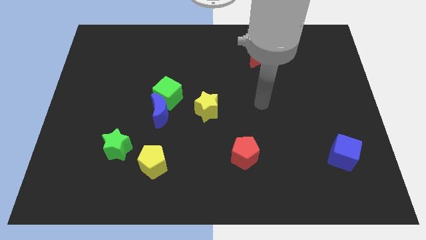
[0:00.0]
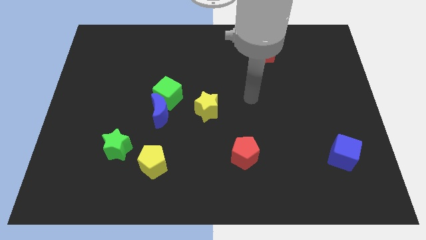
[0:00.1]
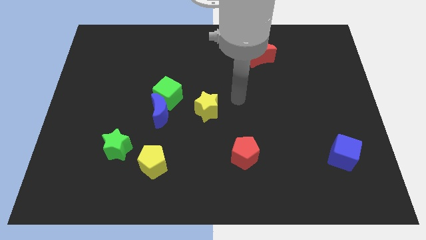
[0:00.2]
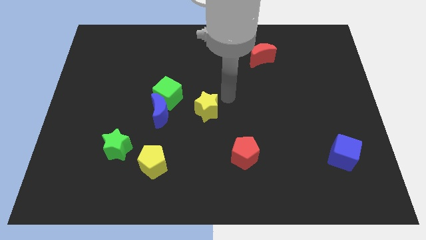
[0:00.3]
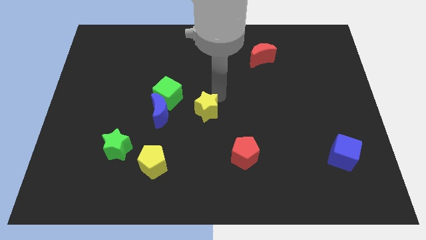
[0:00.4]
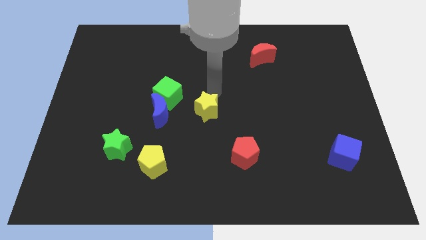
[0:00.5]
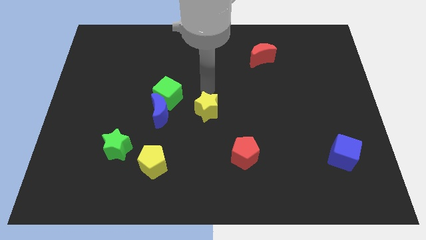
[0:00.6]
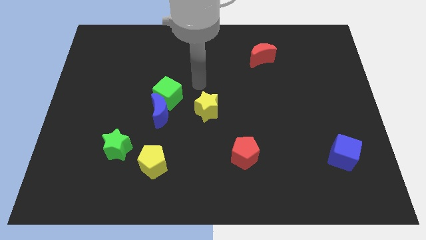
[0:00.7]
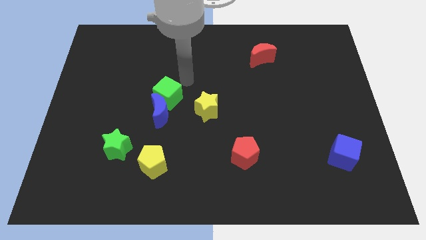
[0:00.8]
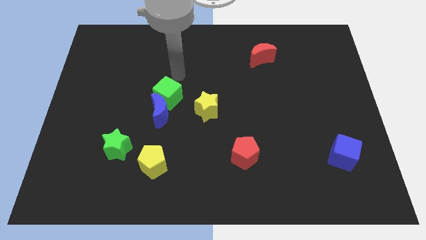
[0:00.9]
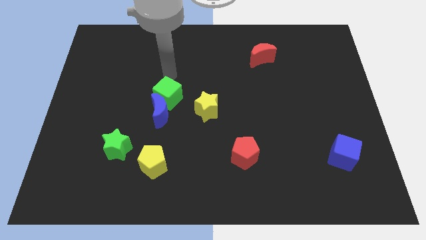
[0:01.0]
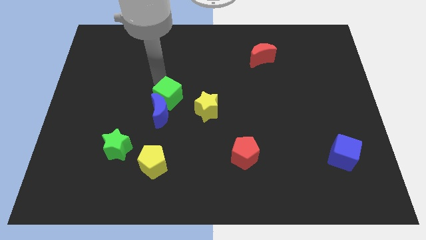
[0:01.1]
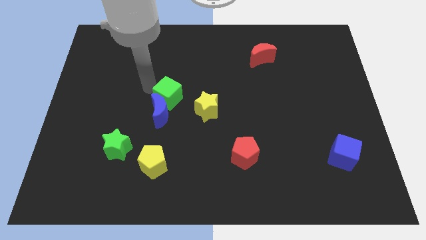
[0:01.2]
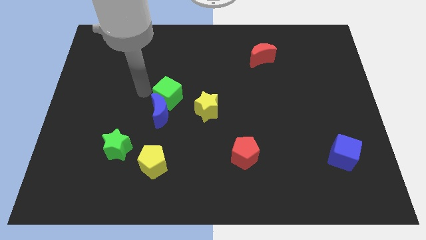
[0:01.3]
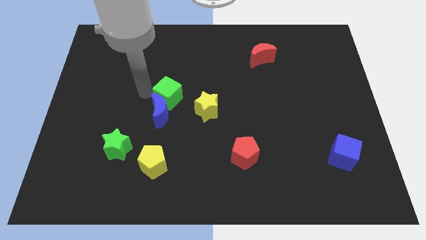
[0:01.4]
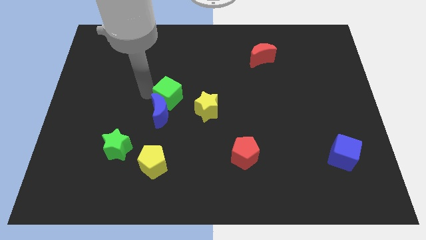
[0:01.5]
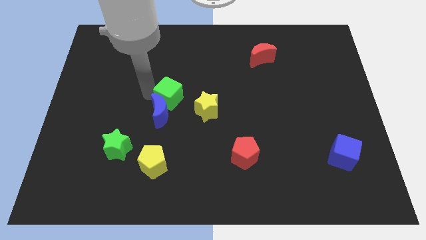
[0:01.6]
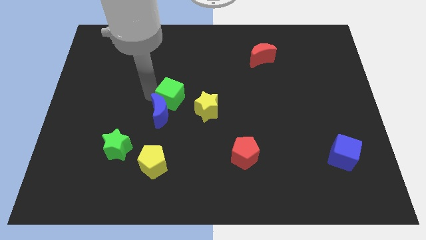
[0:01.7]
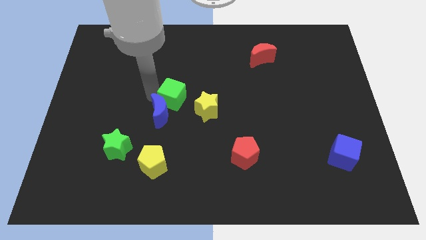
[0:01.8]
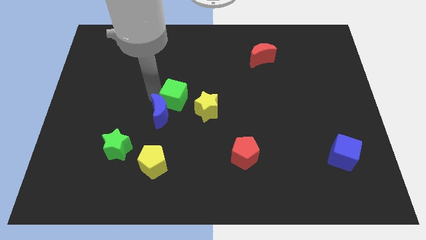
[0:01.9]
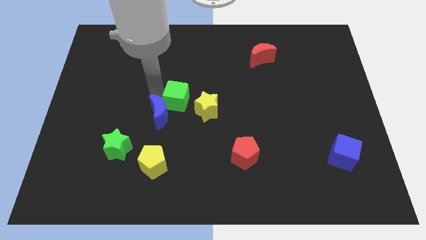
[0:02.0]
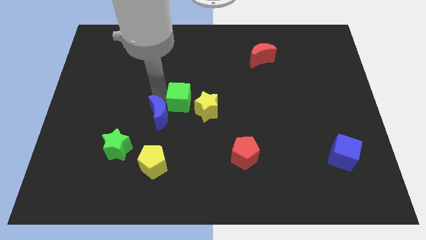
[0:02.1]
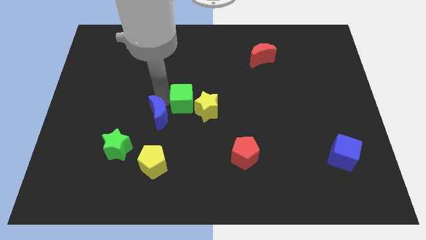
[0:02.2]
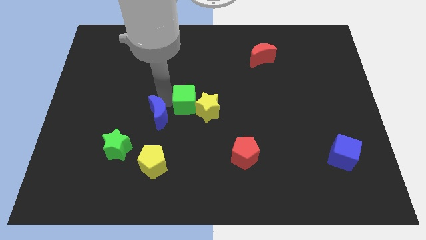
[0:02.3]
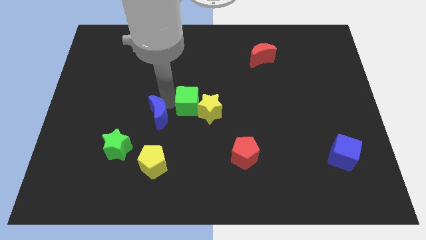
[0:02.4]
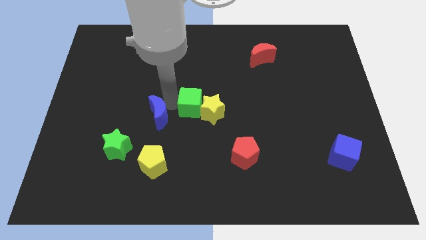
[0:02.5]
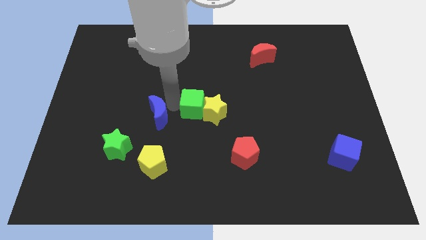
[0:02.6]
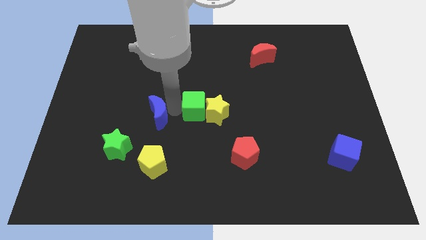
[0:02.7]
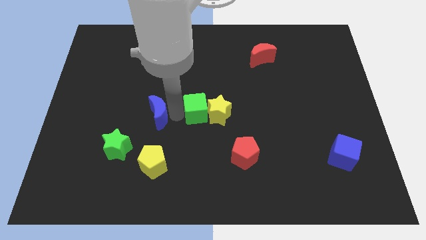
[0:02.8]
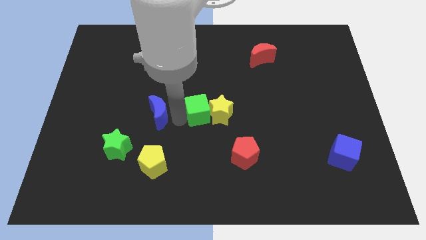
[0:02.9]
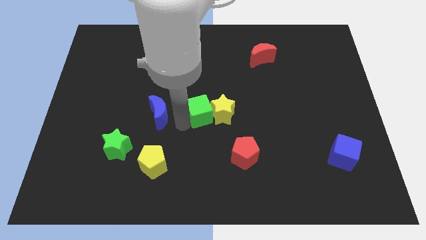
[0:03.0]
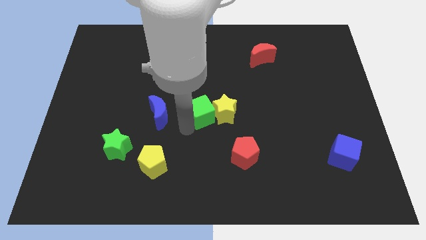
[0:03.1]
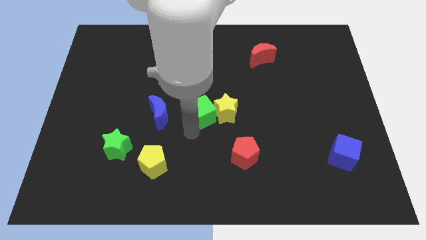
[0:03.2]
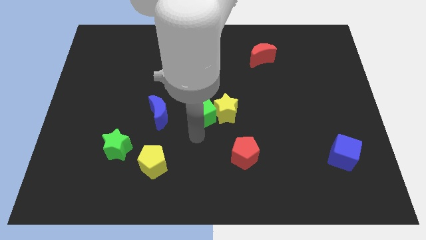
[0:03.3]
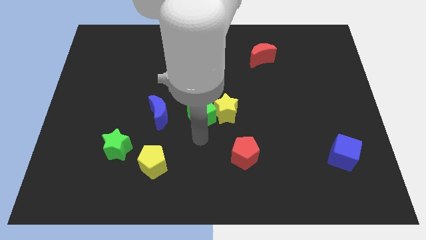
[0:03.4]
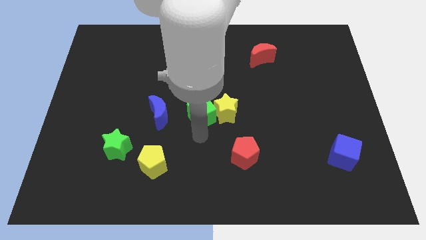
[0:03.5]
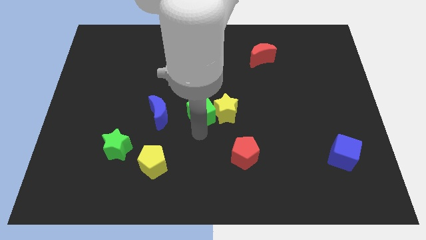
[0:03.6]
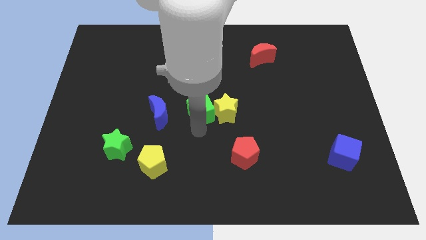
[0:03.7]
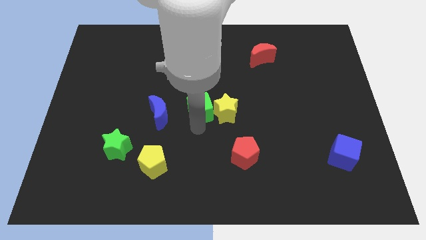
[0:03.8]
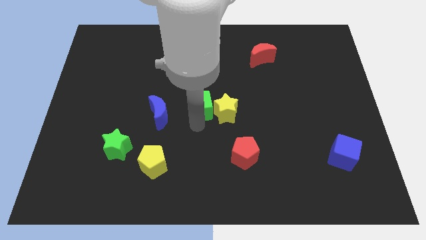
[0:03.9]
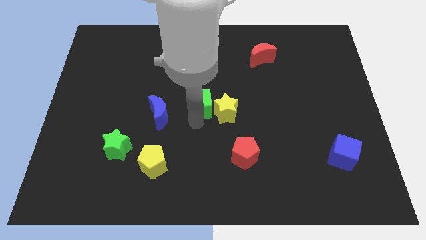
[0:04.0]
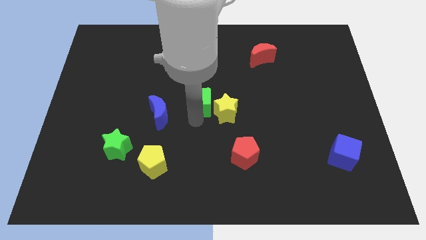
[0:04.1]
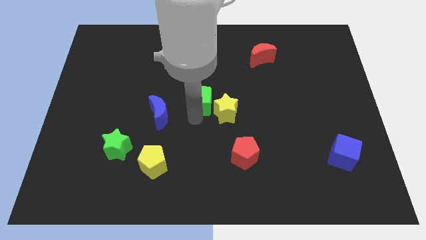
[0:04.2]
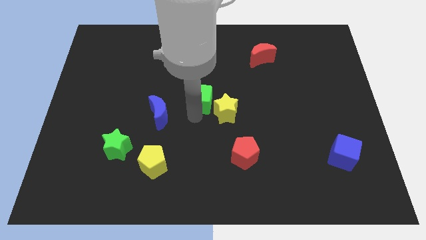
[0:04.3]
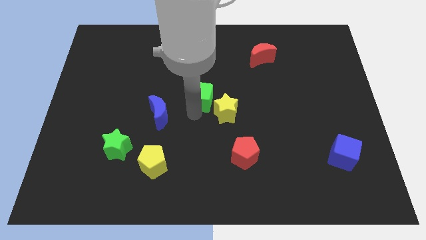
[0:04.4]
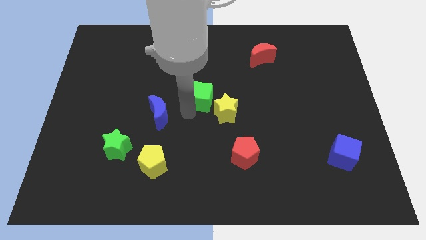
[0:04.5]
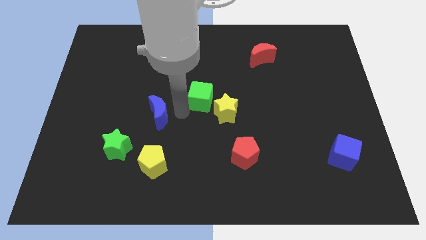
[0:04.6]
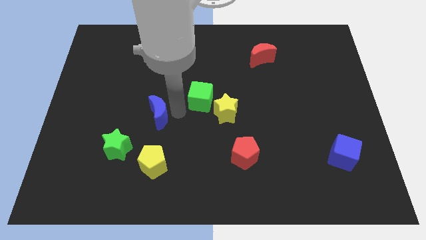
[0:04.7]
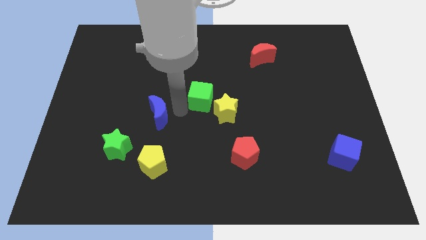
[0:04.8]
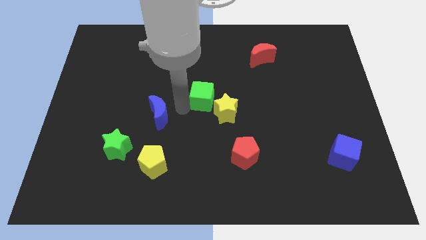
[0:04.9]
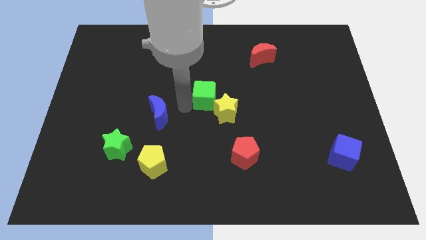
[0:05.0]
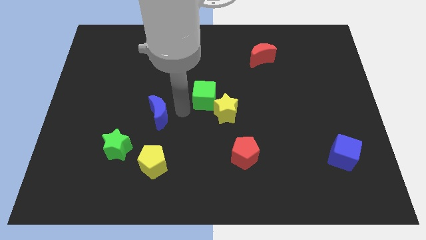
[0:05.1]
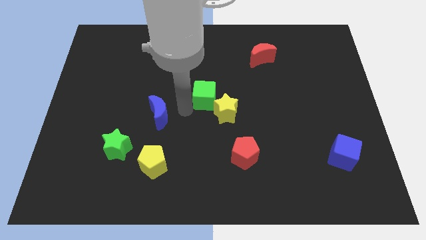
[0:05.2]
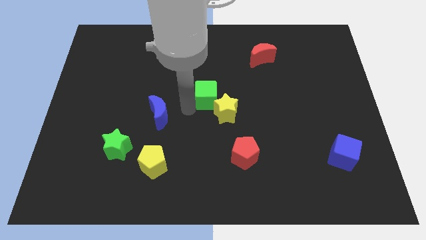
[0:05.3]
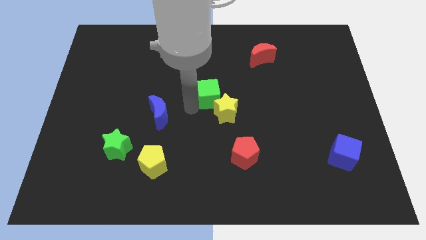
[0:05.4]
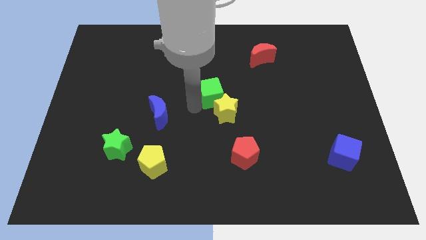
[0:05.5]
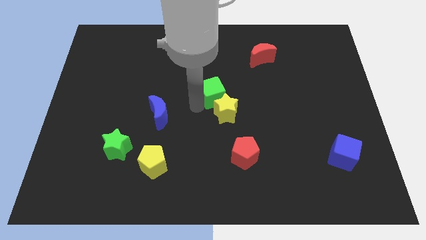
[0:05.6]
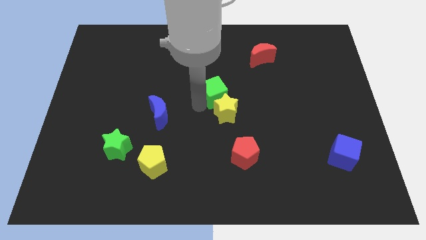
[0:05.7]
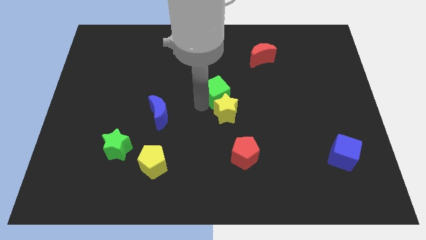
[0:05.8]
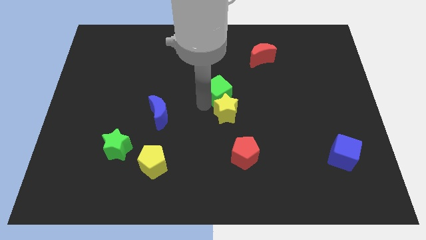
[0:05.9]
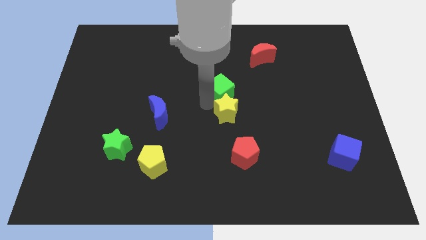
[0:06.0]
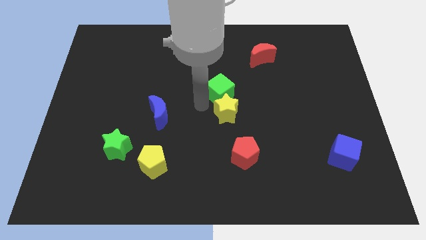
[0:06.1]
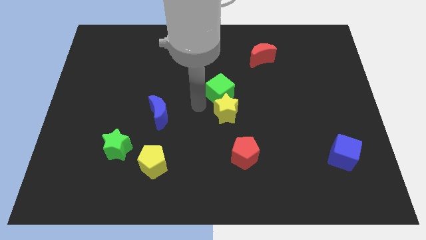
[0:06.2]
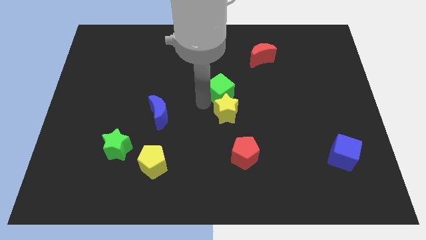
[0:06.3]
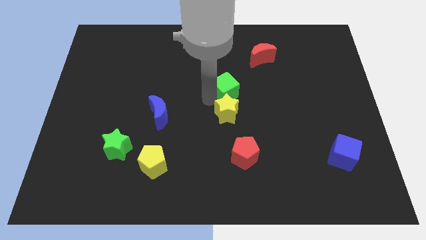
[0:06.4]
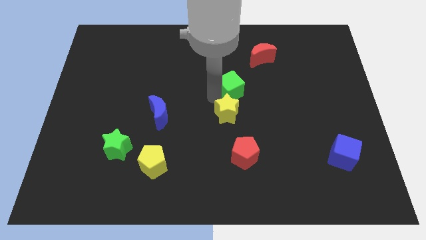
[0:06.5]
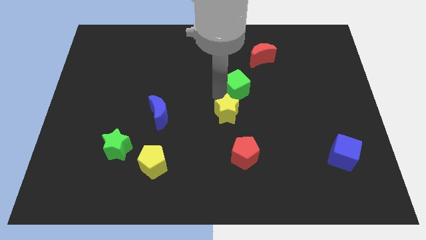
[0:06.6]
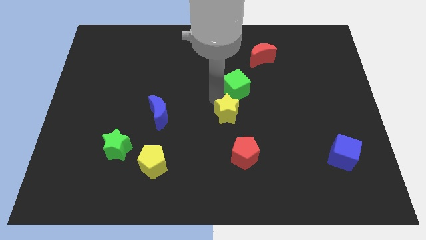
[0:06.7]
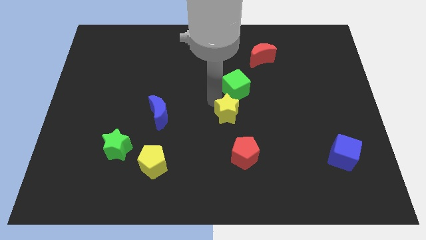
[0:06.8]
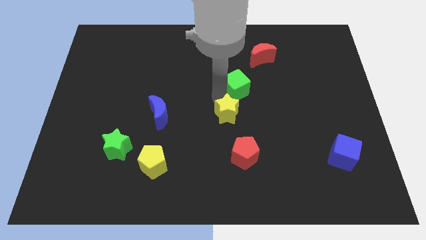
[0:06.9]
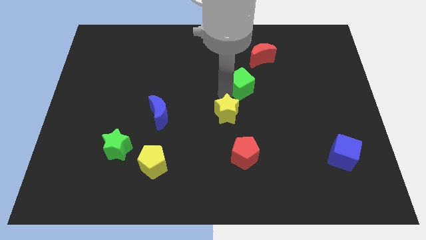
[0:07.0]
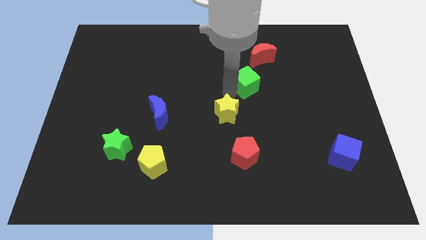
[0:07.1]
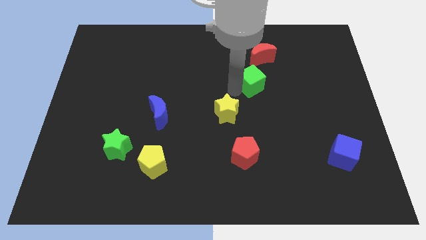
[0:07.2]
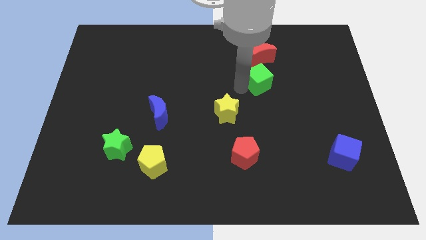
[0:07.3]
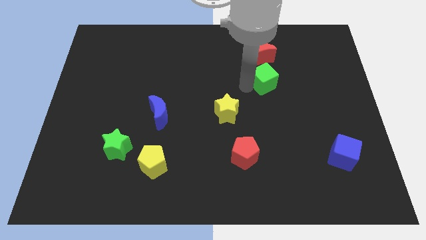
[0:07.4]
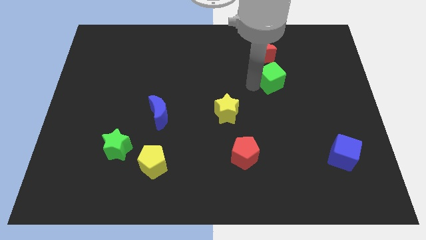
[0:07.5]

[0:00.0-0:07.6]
slide the green cube to the bottom right of the red moon
